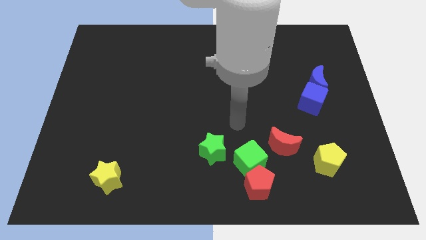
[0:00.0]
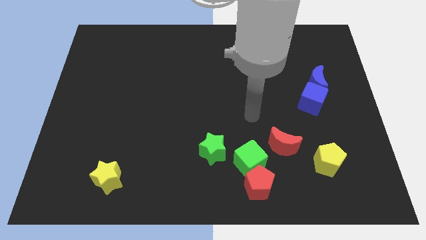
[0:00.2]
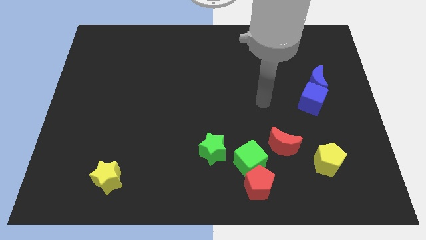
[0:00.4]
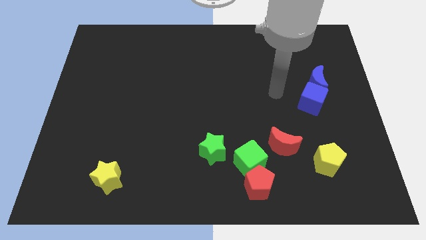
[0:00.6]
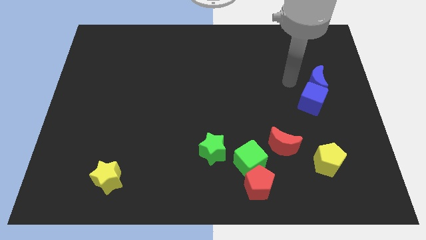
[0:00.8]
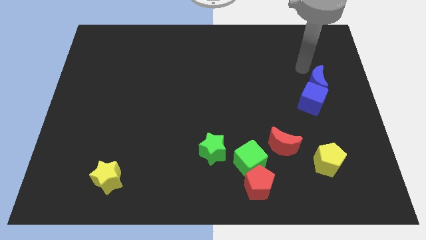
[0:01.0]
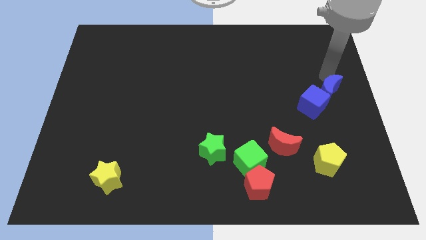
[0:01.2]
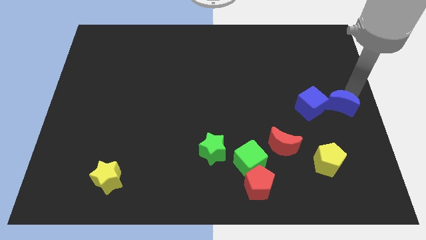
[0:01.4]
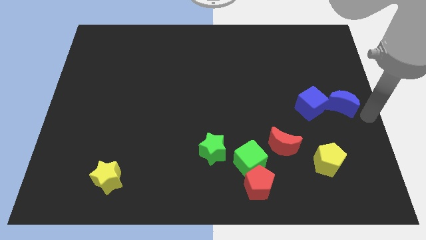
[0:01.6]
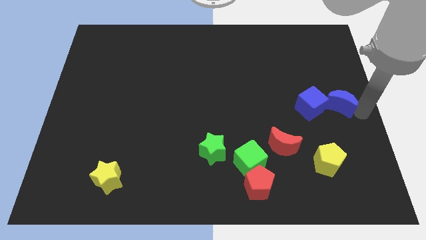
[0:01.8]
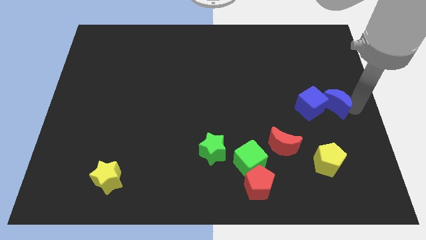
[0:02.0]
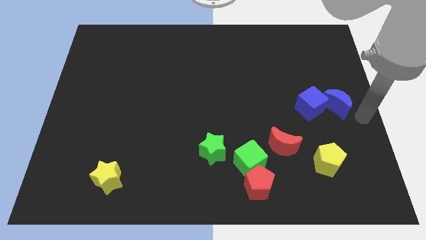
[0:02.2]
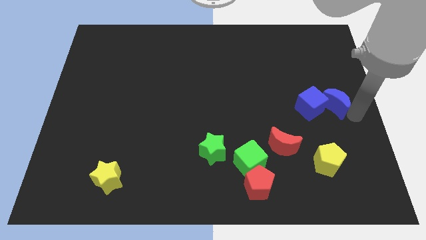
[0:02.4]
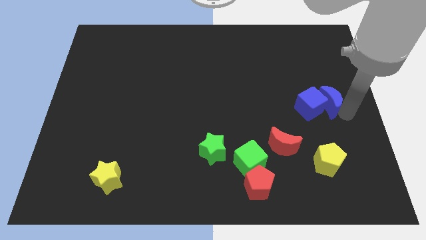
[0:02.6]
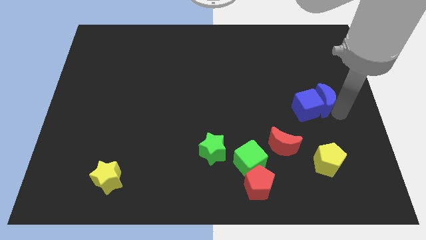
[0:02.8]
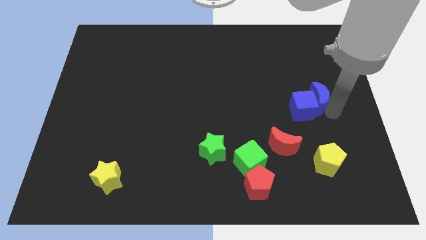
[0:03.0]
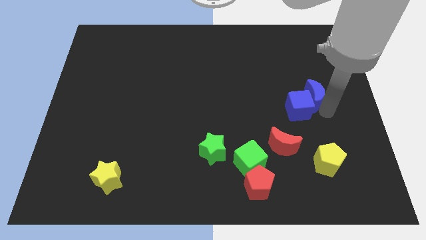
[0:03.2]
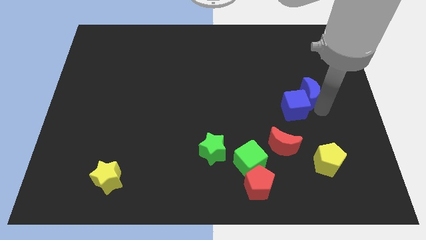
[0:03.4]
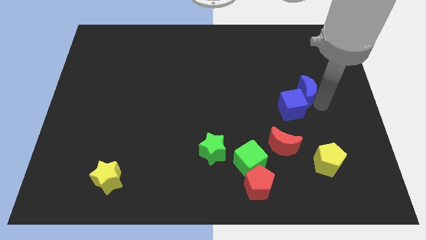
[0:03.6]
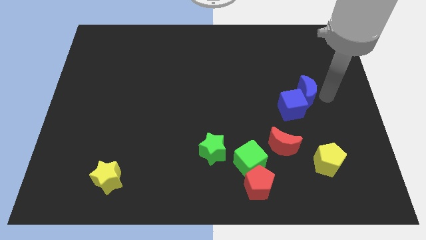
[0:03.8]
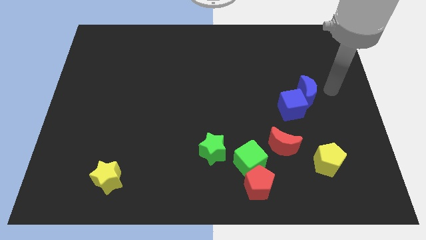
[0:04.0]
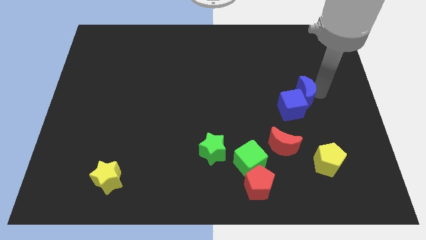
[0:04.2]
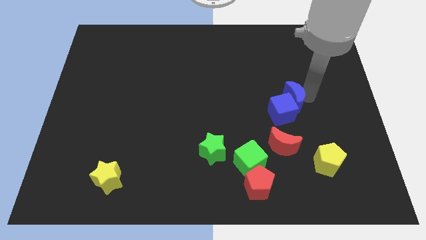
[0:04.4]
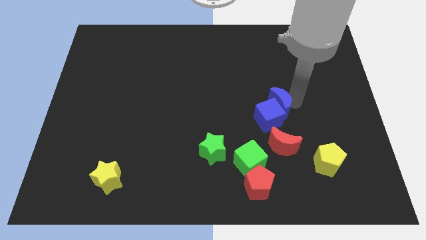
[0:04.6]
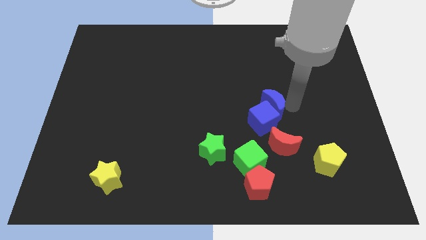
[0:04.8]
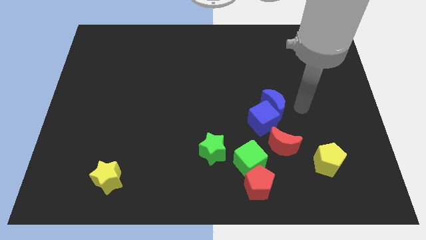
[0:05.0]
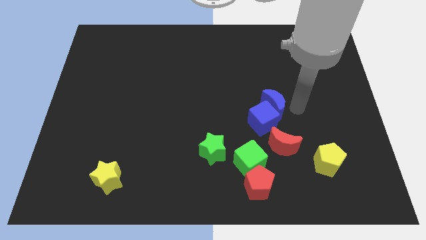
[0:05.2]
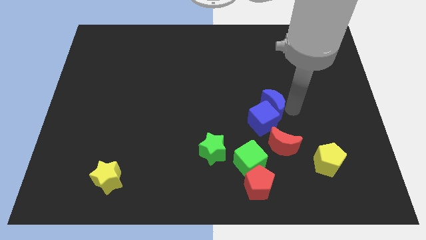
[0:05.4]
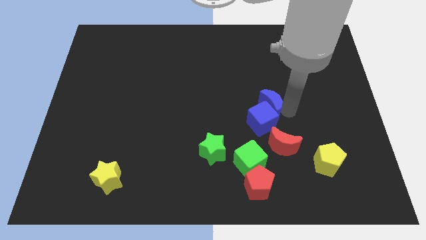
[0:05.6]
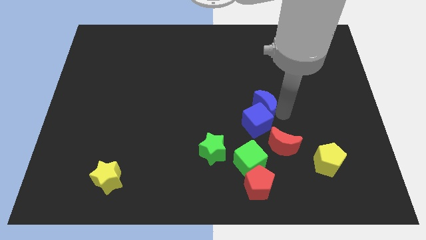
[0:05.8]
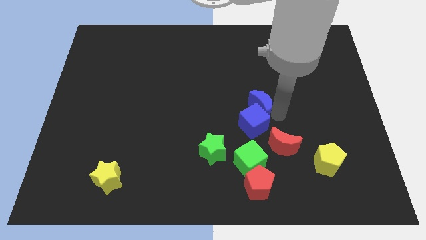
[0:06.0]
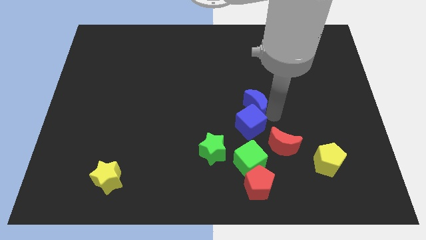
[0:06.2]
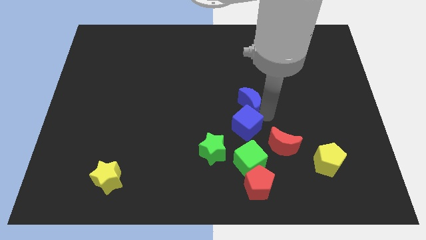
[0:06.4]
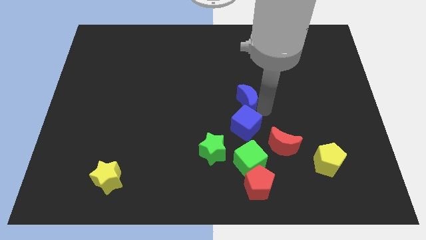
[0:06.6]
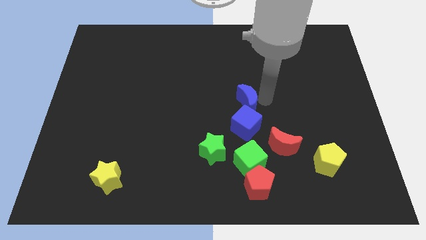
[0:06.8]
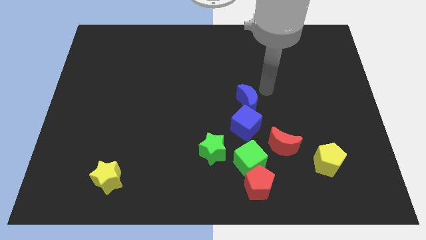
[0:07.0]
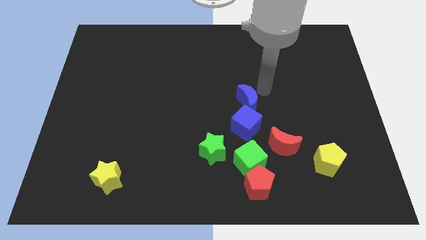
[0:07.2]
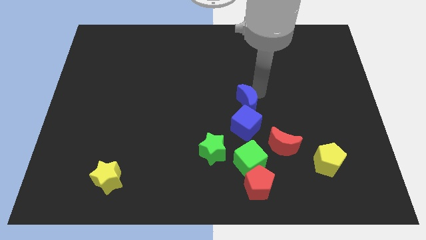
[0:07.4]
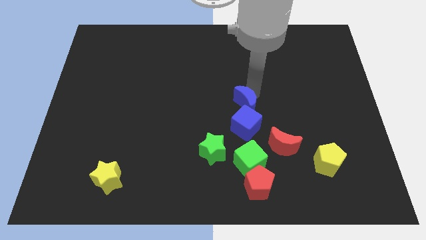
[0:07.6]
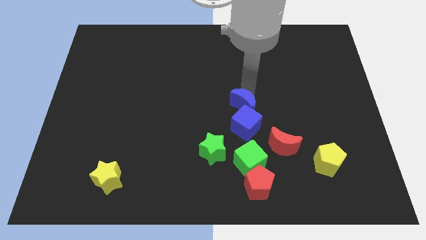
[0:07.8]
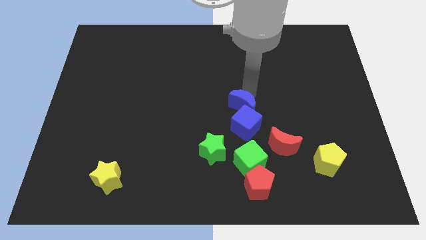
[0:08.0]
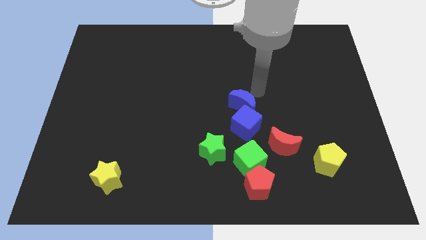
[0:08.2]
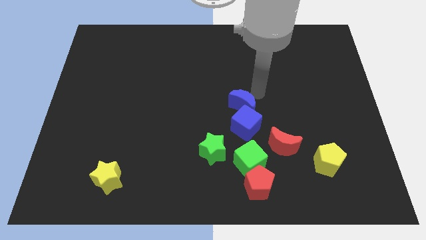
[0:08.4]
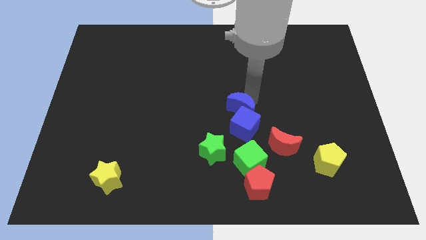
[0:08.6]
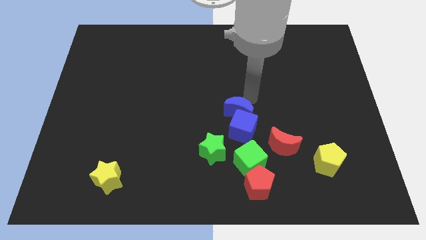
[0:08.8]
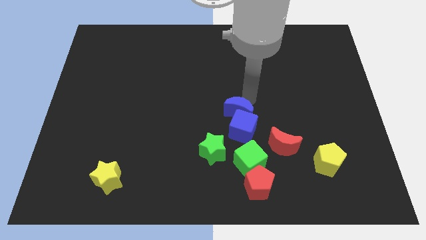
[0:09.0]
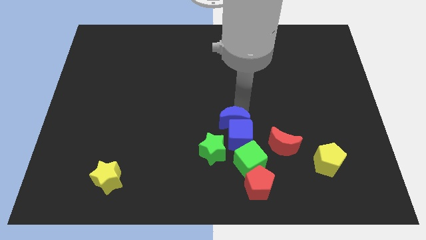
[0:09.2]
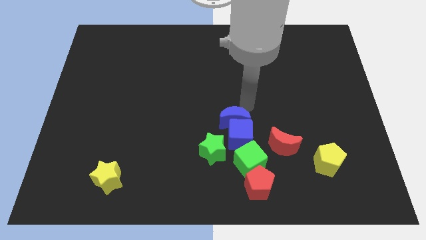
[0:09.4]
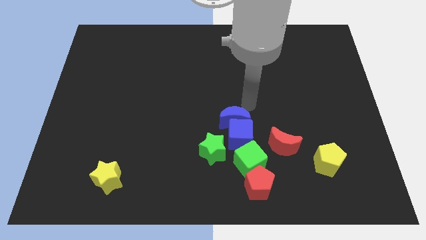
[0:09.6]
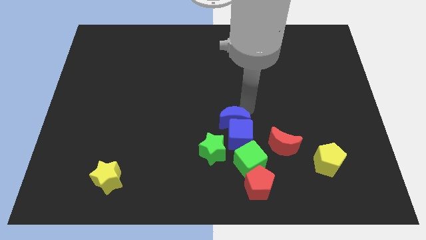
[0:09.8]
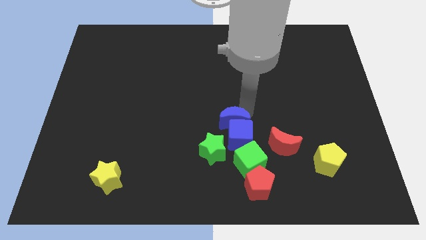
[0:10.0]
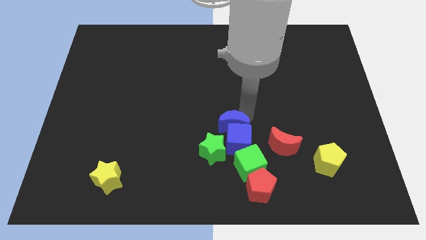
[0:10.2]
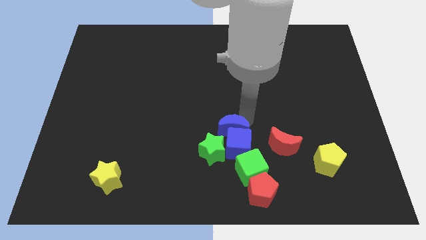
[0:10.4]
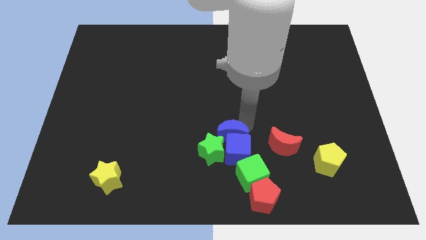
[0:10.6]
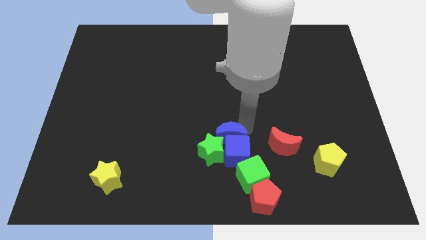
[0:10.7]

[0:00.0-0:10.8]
slide the blue moon next to the green star

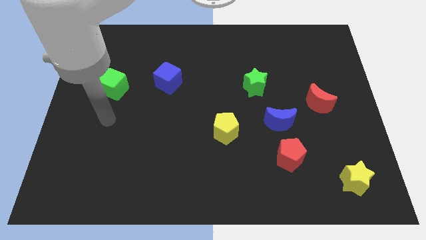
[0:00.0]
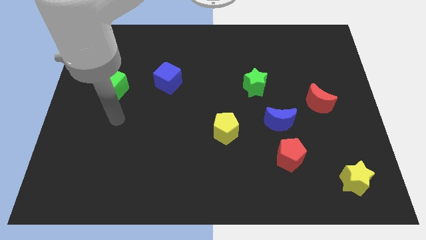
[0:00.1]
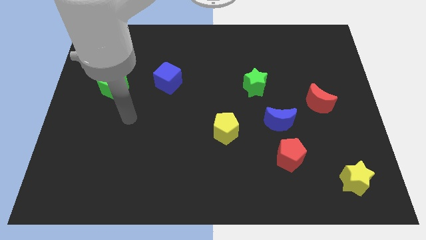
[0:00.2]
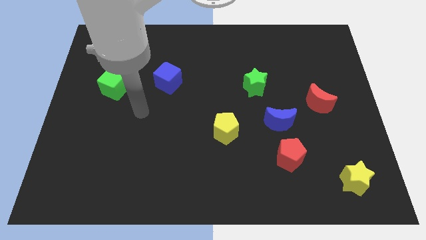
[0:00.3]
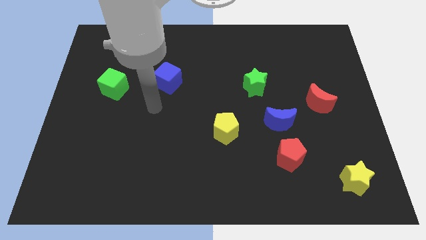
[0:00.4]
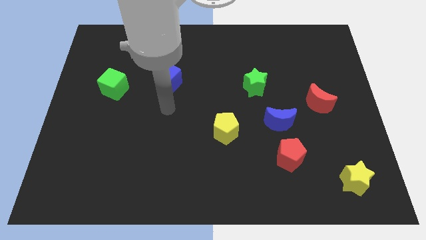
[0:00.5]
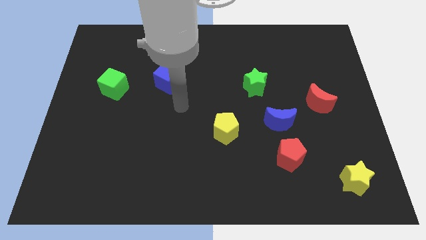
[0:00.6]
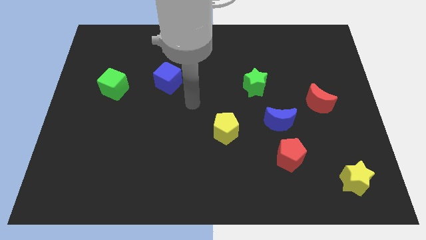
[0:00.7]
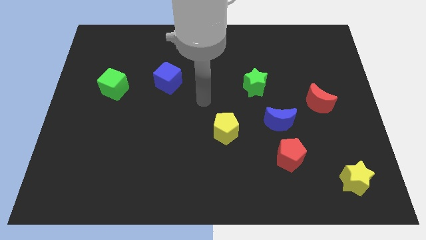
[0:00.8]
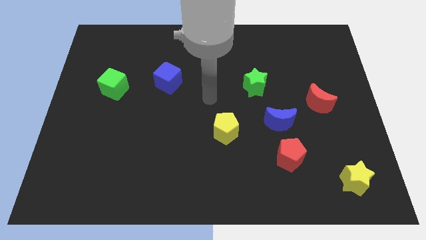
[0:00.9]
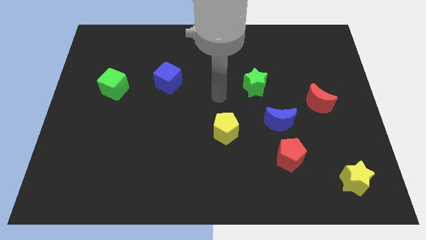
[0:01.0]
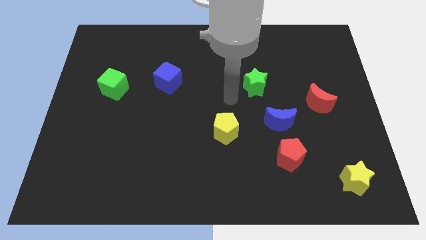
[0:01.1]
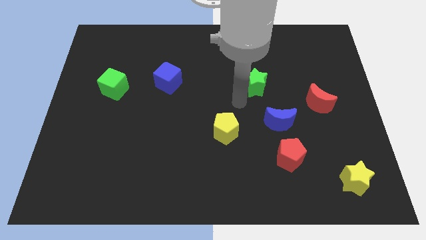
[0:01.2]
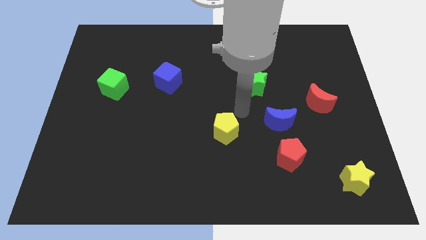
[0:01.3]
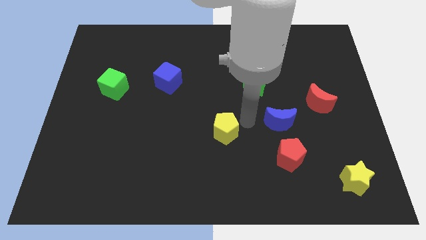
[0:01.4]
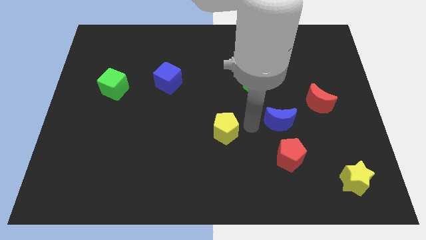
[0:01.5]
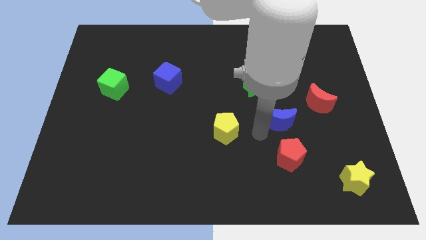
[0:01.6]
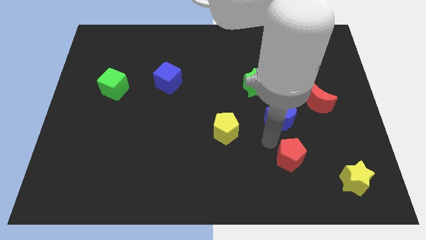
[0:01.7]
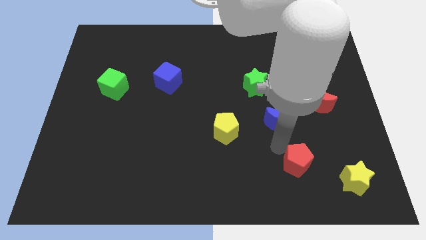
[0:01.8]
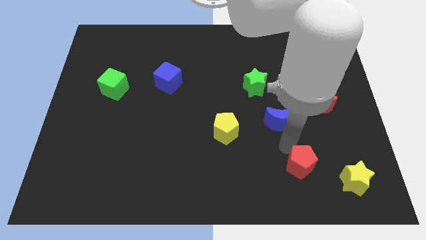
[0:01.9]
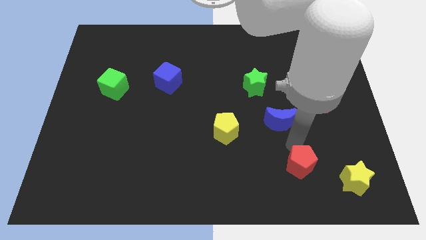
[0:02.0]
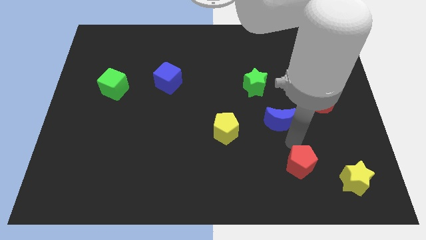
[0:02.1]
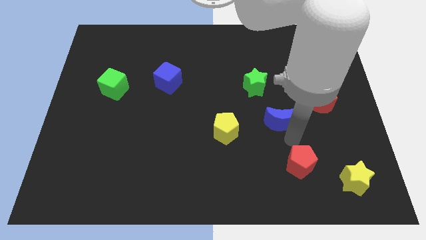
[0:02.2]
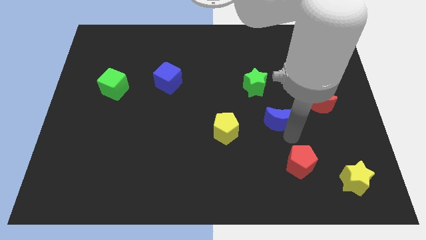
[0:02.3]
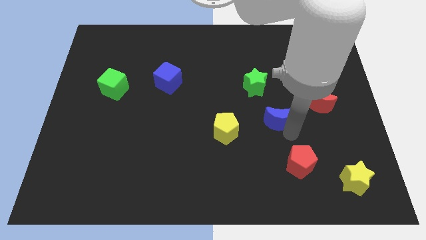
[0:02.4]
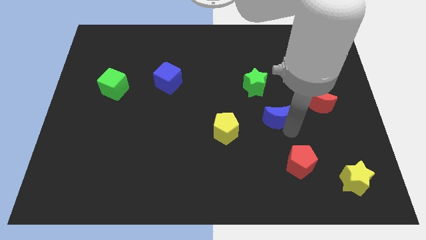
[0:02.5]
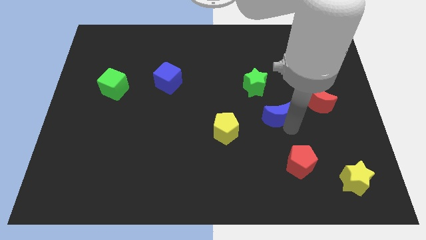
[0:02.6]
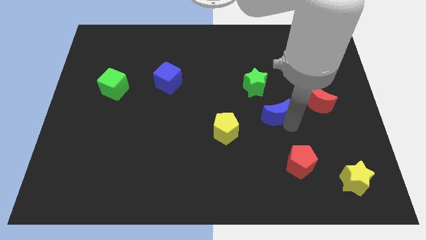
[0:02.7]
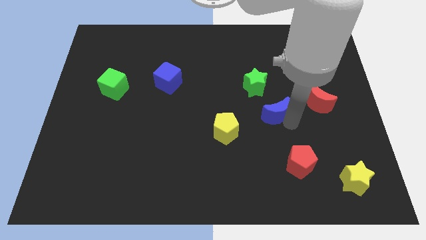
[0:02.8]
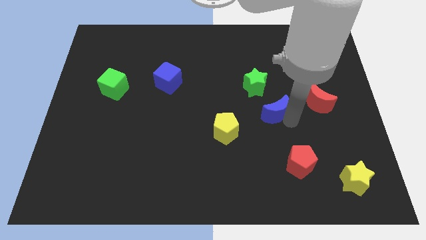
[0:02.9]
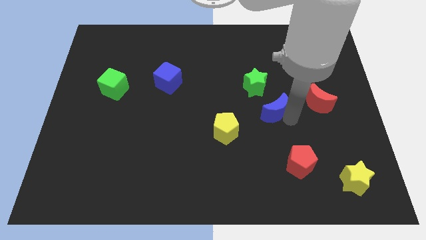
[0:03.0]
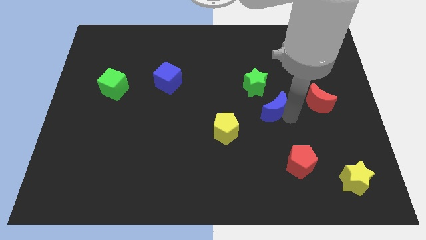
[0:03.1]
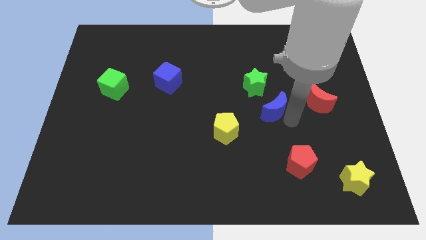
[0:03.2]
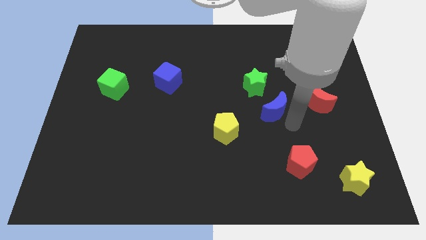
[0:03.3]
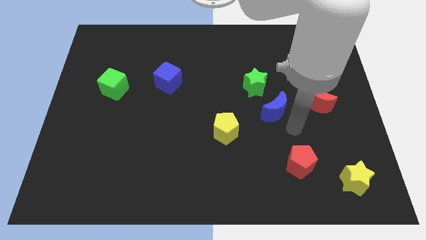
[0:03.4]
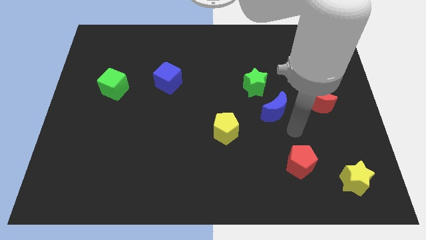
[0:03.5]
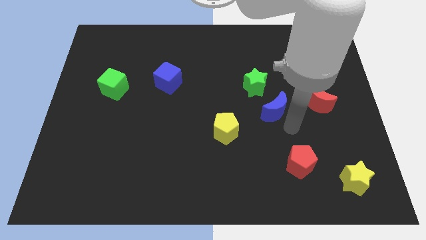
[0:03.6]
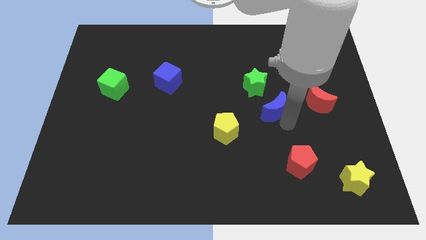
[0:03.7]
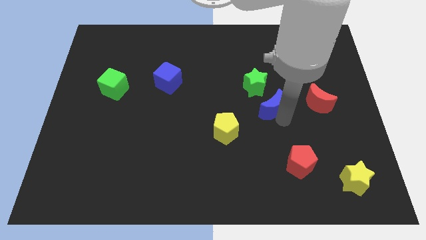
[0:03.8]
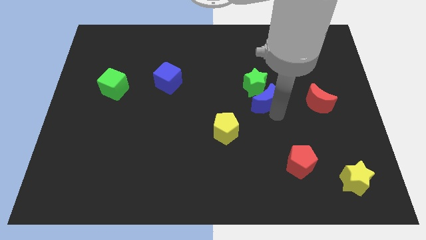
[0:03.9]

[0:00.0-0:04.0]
put the blue moon close to the green star
